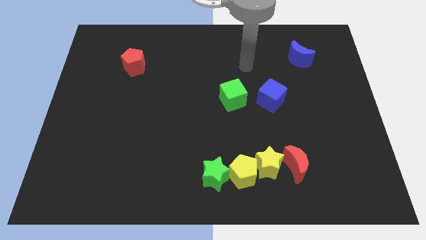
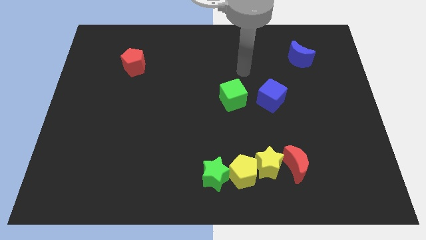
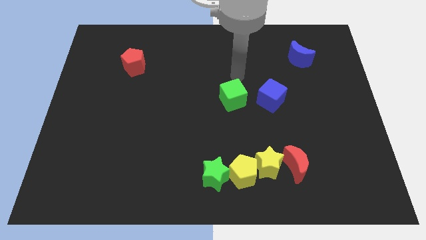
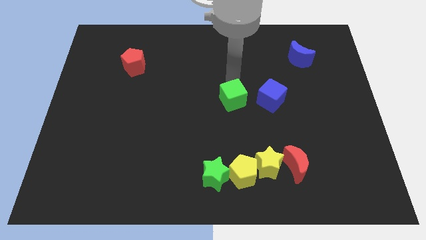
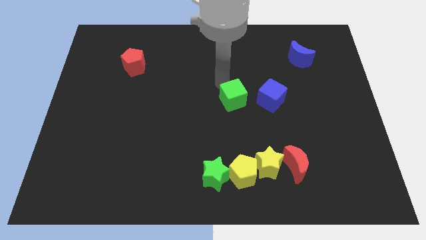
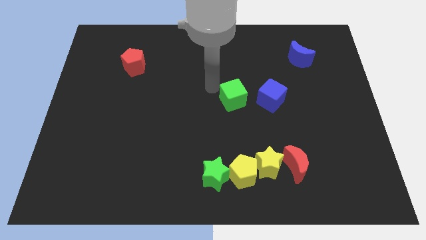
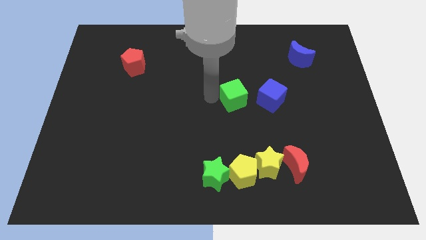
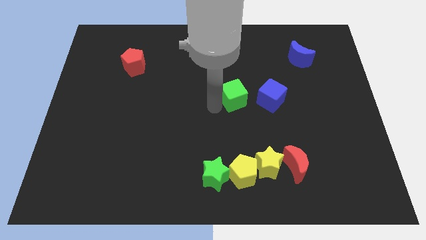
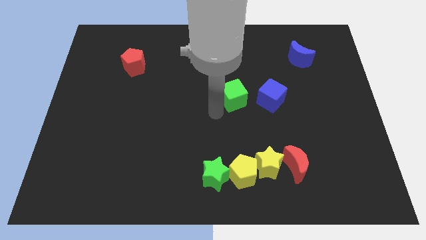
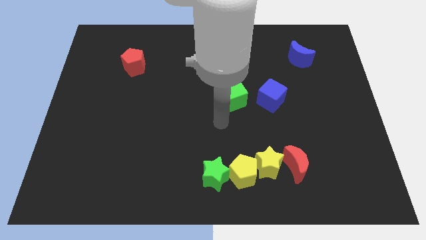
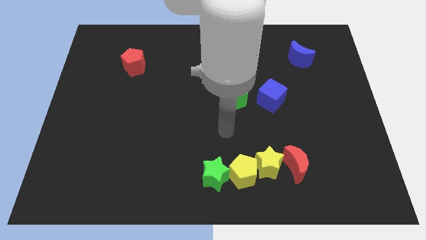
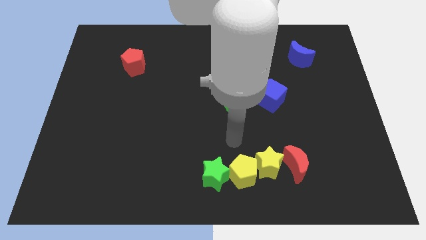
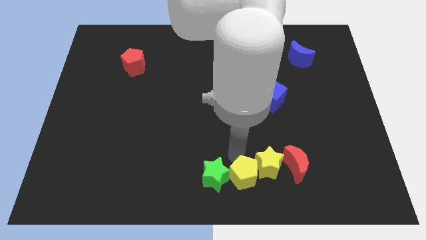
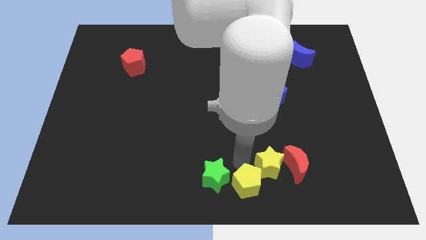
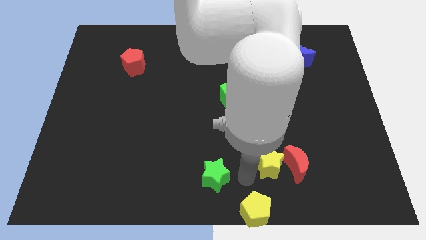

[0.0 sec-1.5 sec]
pull the green star apart from the yellow pentagon

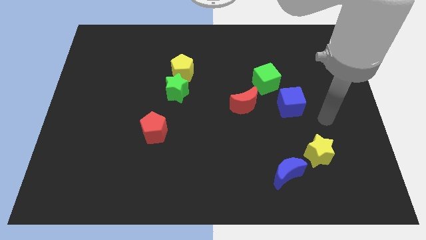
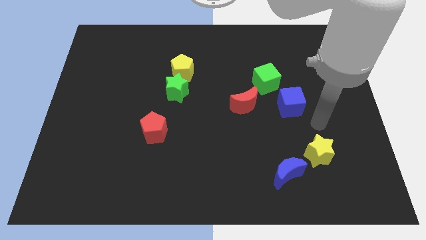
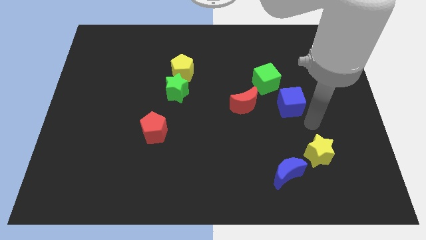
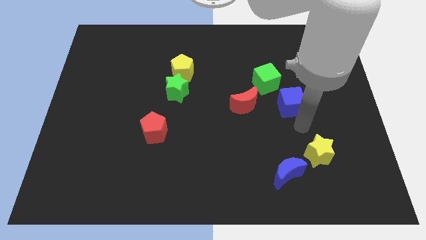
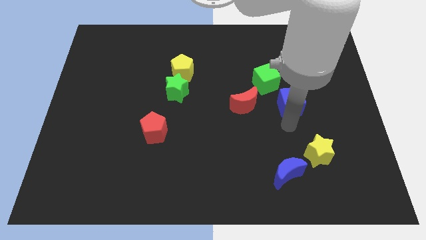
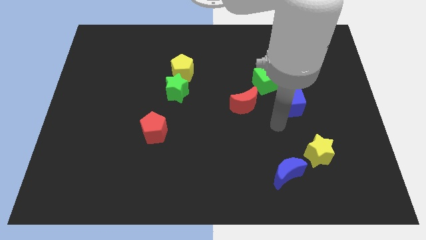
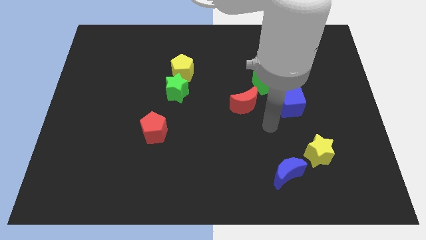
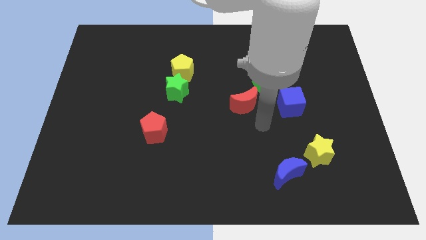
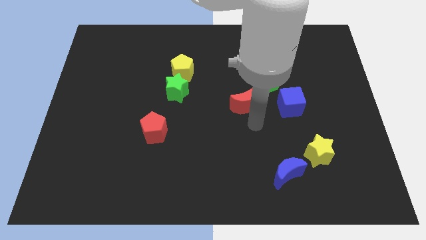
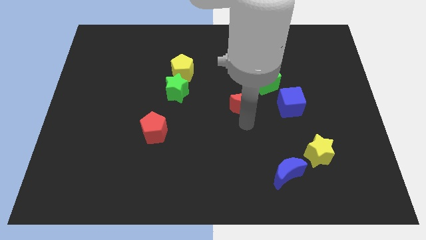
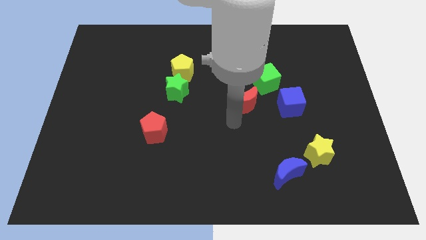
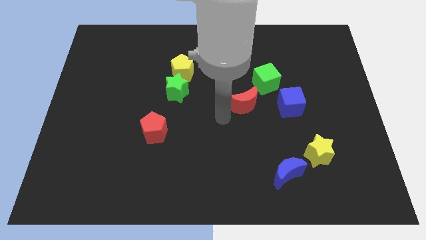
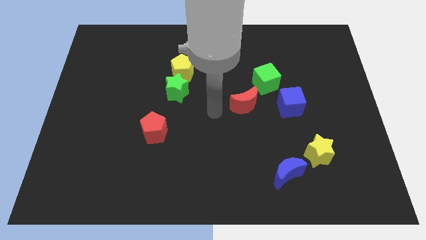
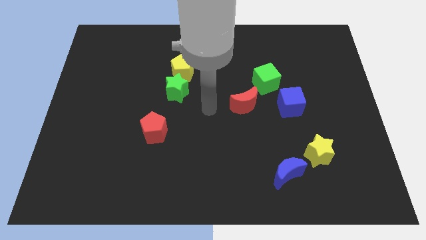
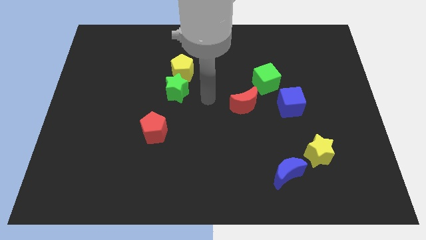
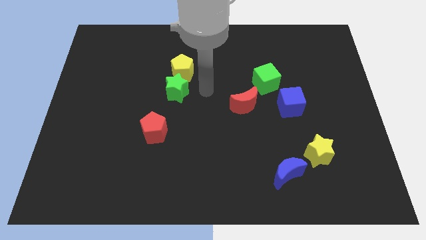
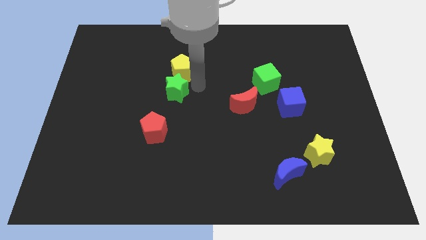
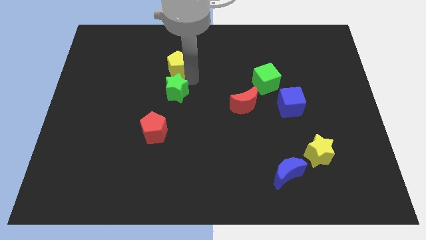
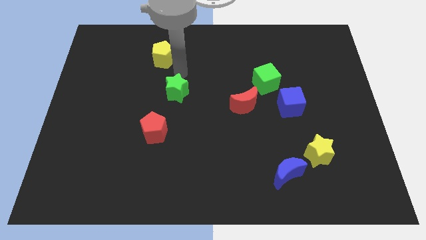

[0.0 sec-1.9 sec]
separate the green star from the yellow pentagon

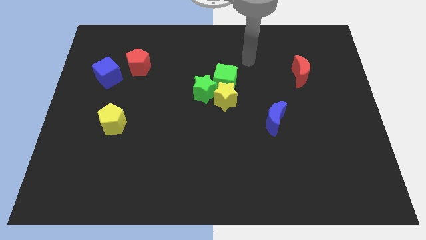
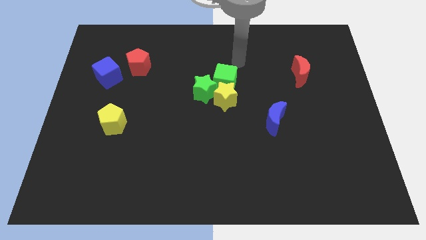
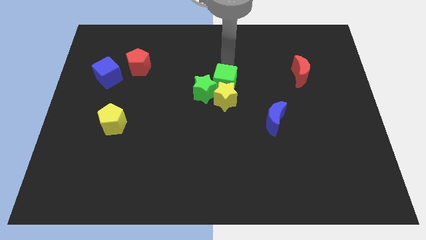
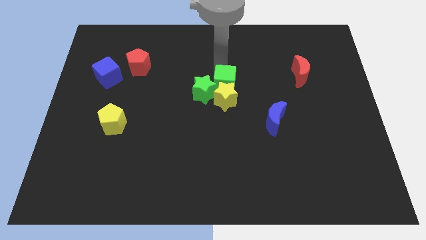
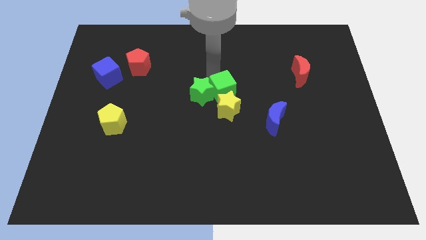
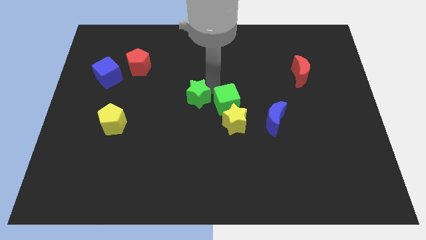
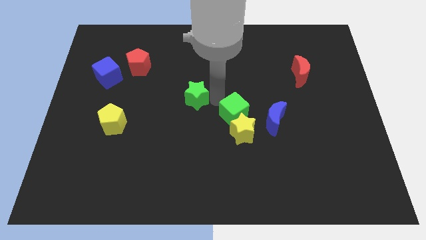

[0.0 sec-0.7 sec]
pull the yellow star apart from the green cube and green star

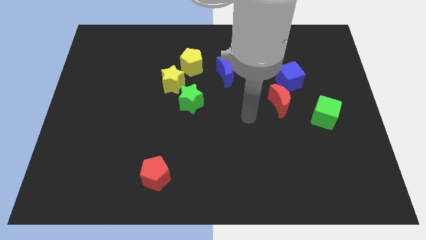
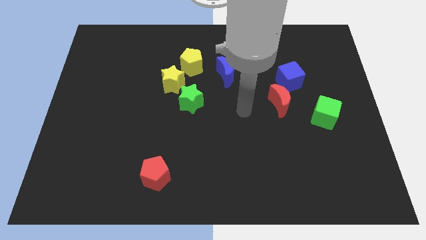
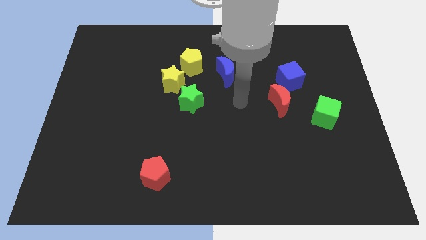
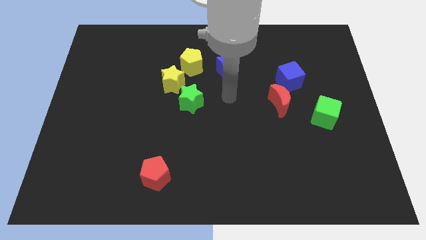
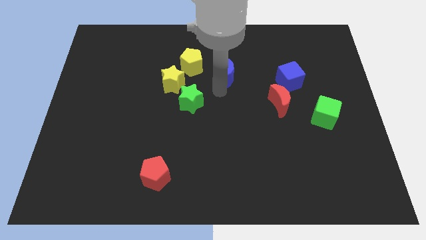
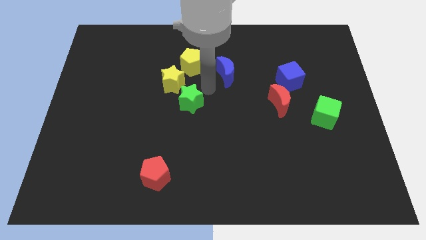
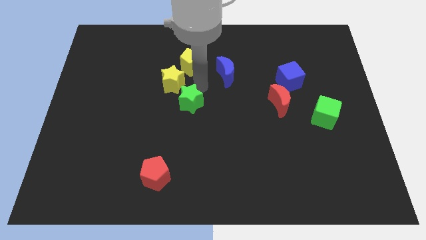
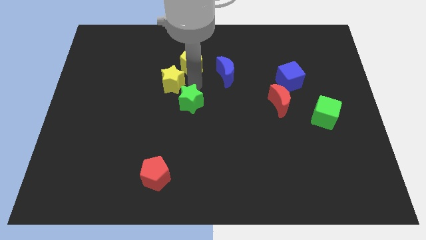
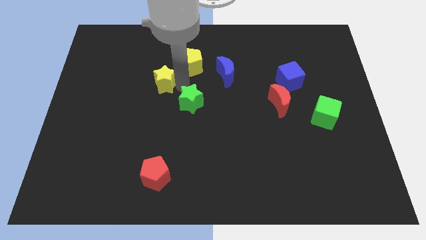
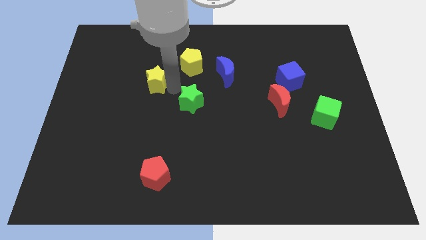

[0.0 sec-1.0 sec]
move the green star away from the yellow star

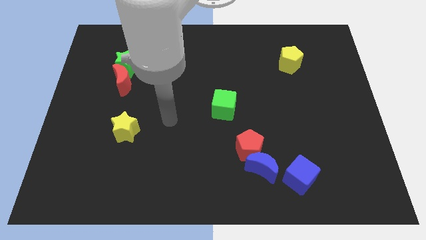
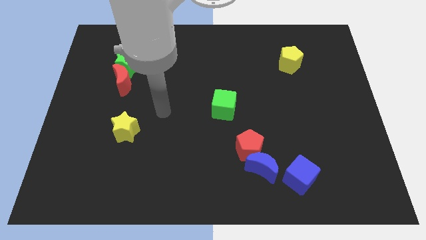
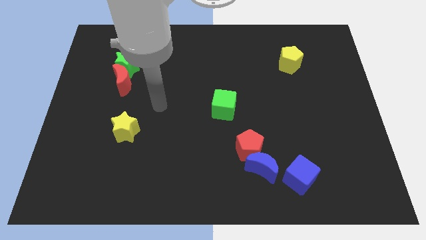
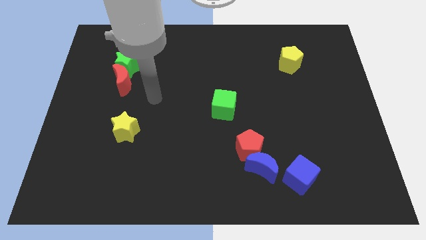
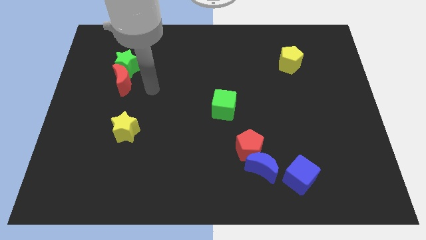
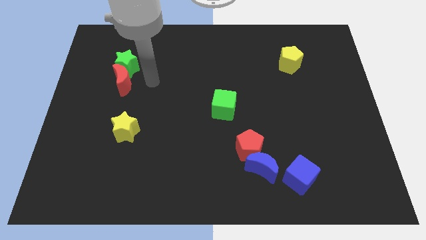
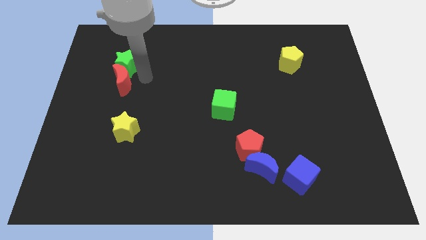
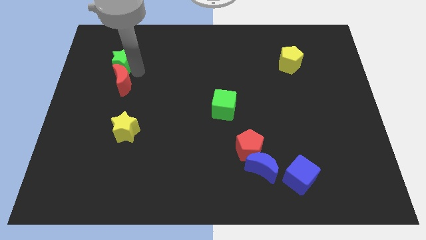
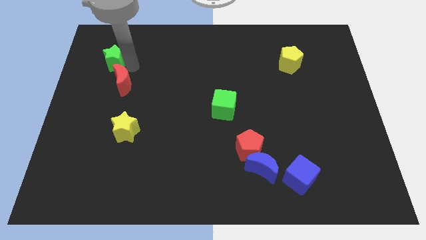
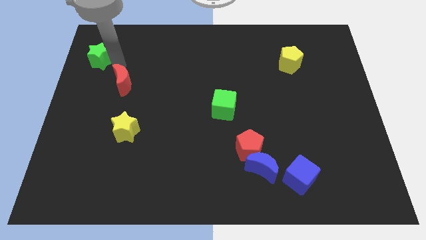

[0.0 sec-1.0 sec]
move the red moon away from the green star

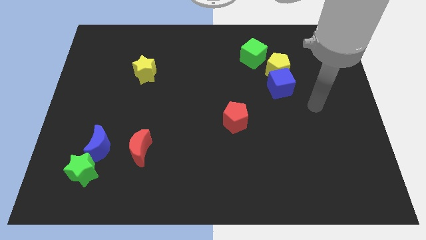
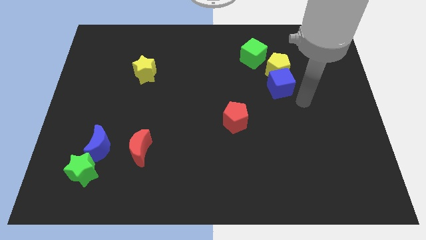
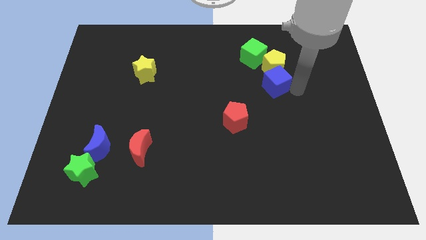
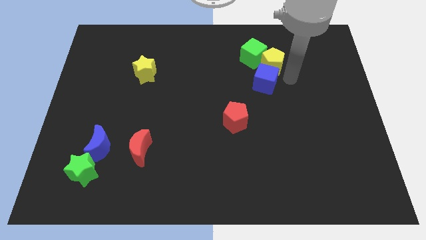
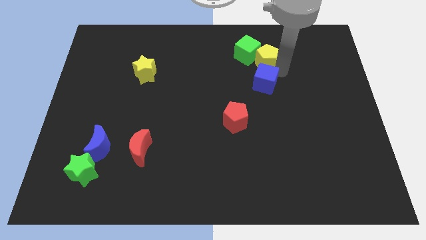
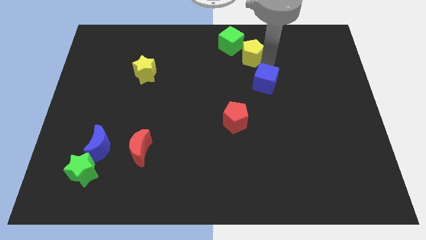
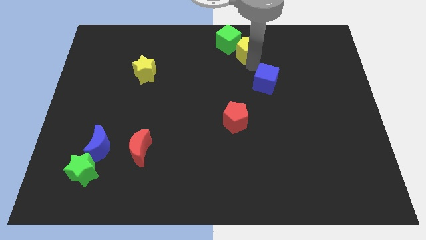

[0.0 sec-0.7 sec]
pull the blue cube apart from the yellow pentagon

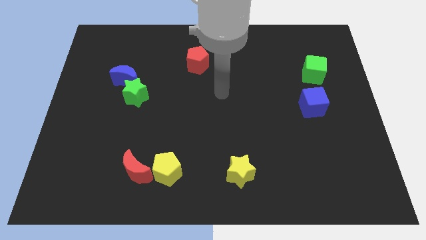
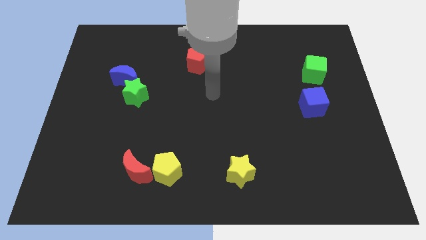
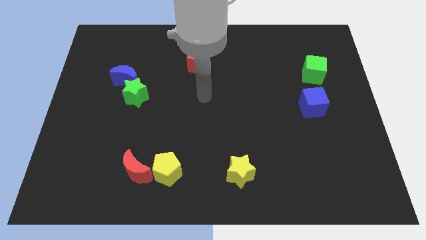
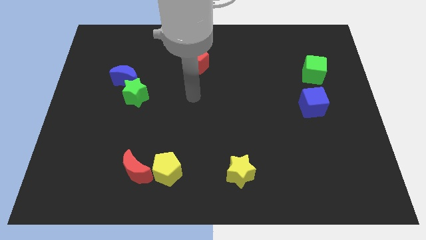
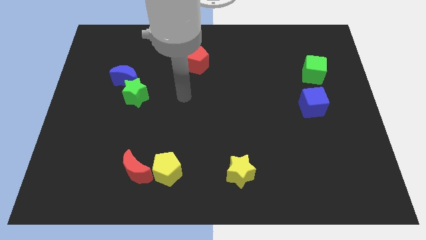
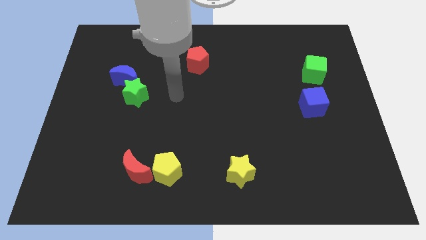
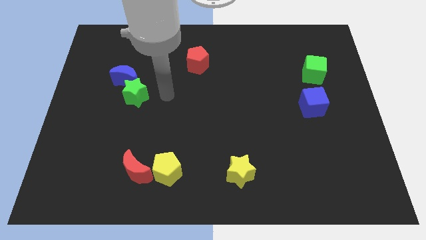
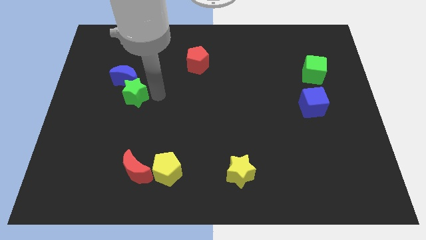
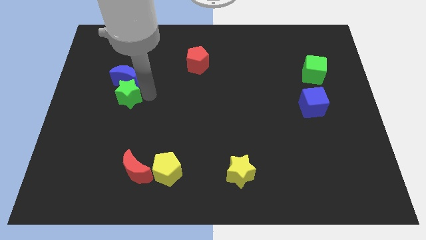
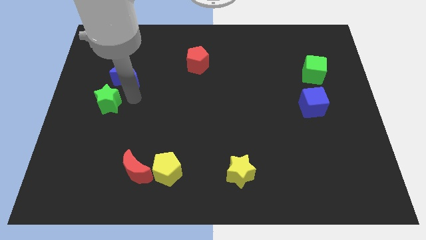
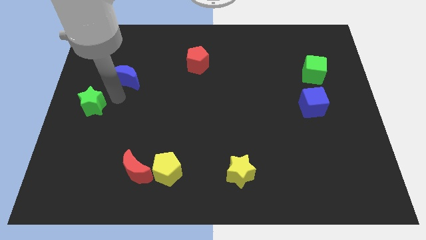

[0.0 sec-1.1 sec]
move the blue moon away from the green star

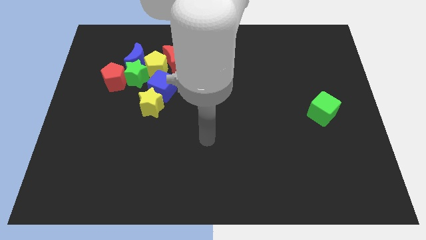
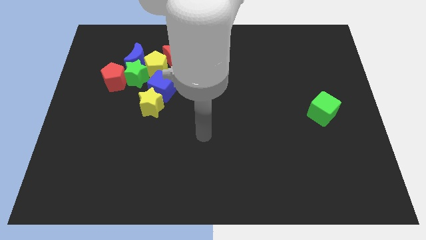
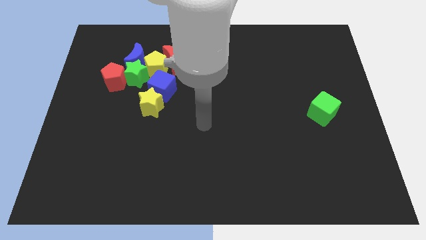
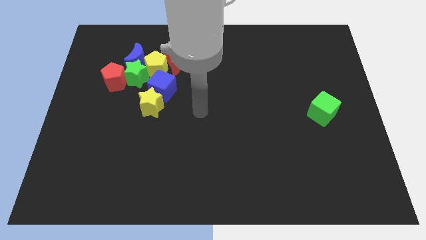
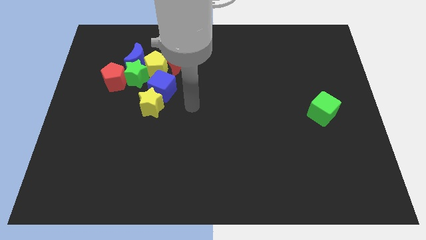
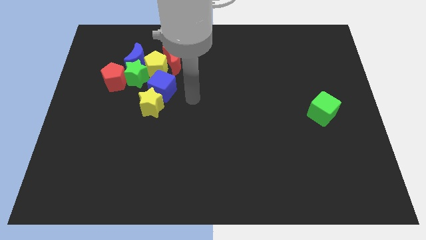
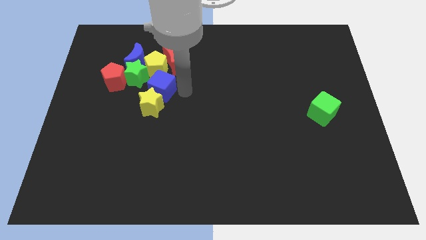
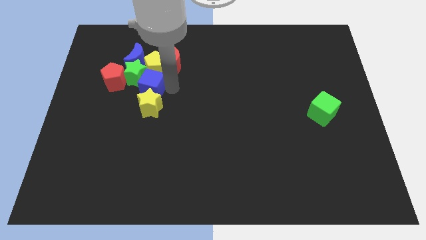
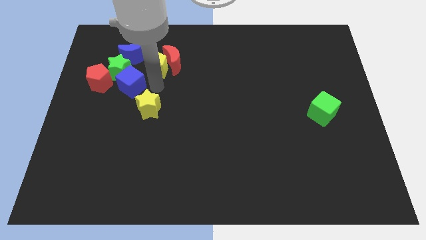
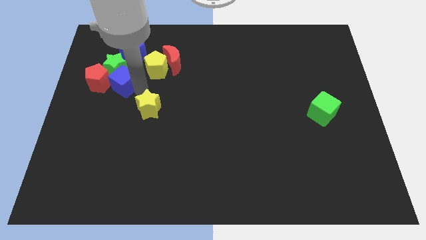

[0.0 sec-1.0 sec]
move the yellow star away from the blue cube

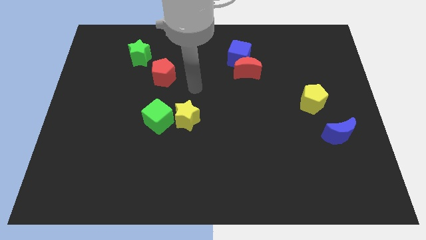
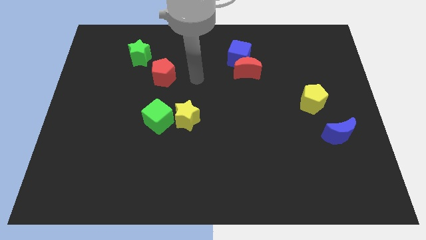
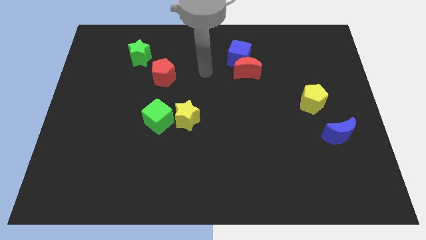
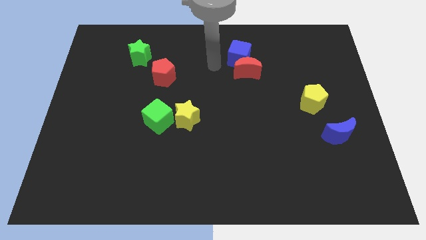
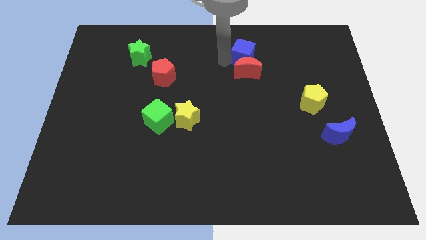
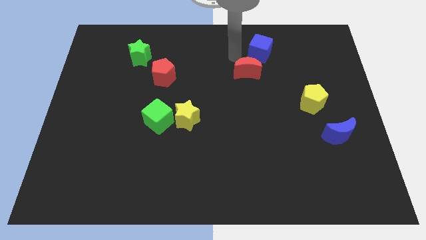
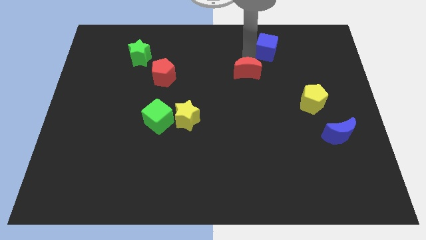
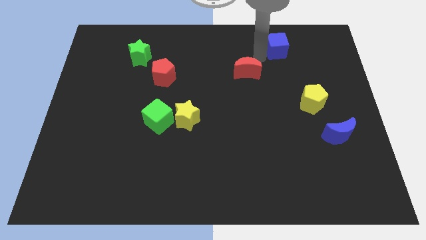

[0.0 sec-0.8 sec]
pull the red moon apart from the blue cube
